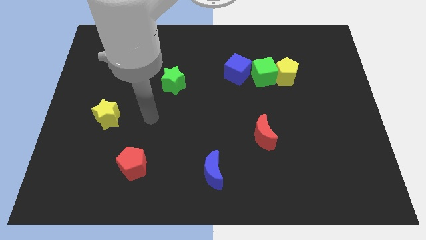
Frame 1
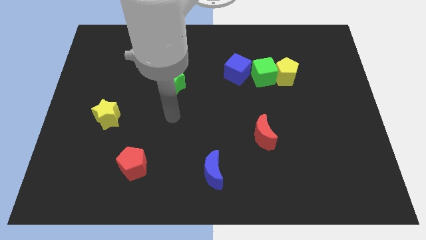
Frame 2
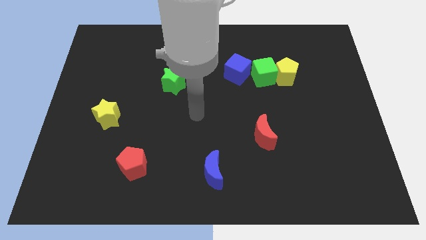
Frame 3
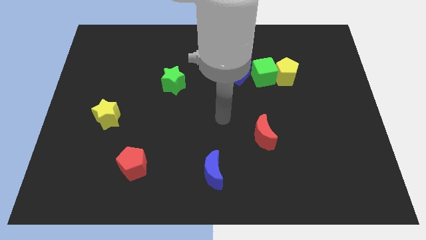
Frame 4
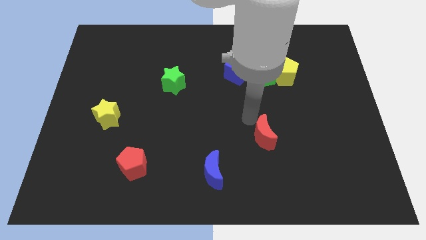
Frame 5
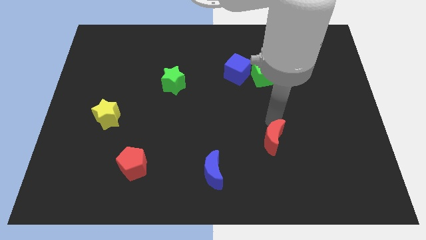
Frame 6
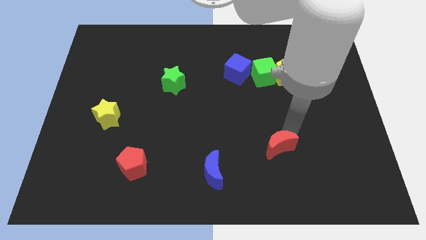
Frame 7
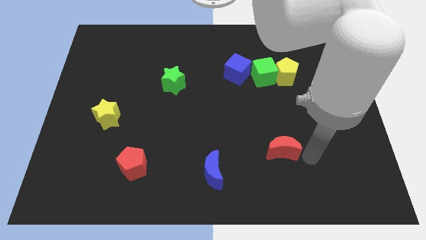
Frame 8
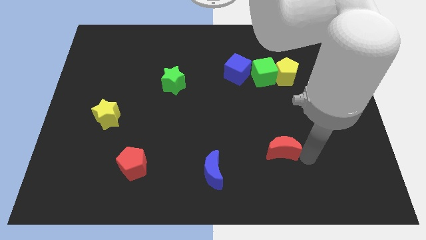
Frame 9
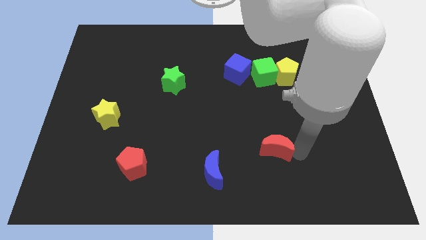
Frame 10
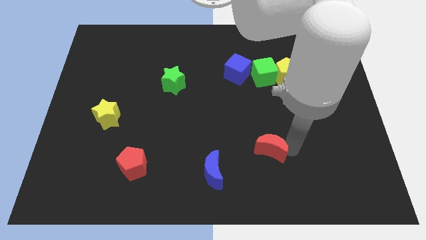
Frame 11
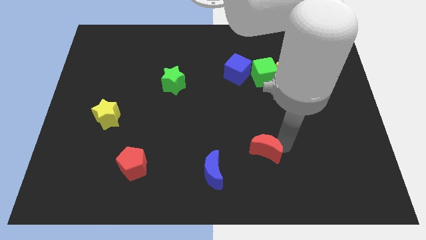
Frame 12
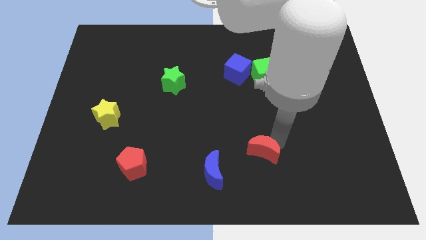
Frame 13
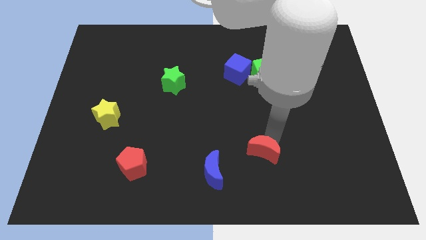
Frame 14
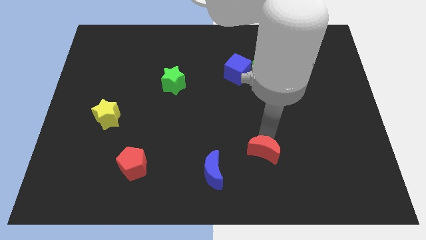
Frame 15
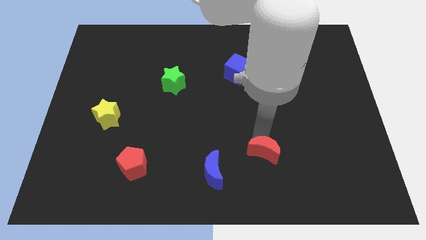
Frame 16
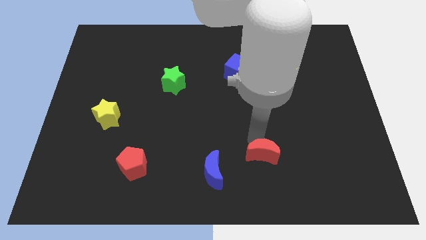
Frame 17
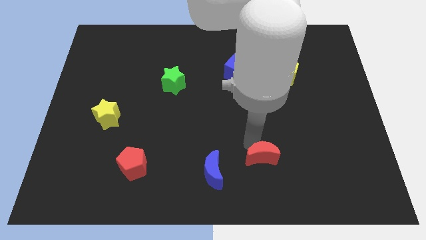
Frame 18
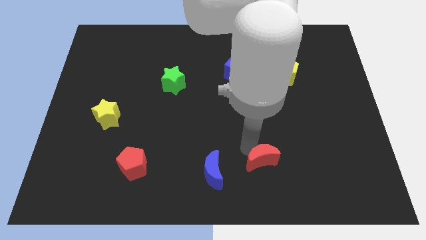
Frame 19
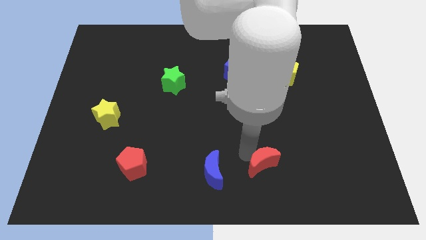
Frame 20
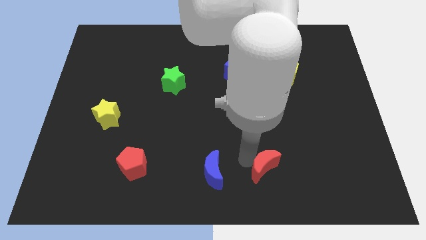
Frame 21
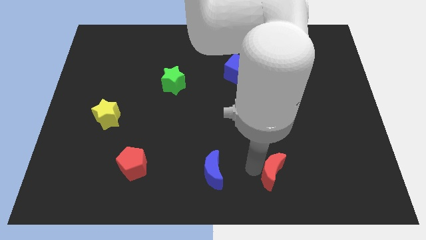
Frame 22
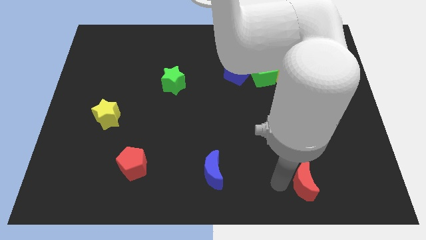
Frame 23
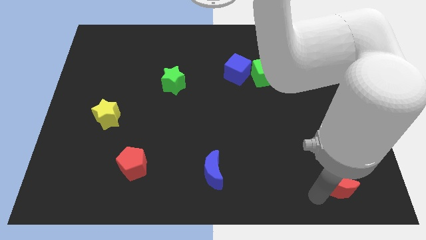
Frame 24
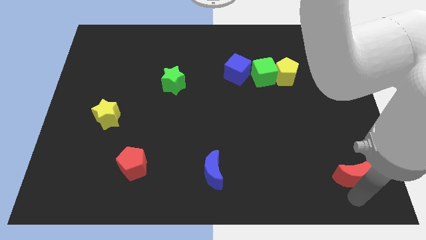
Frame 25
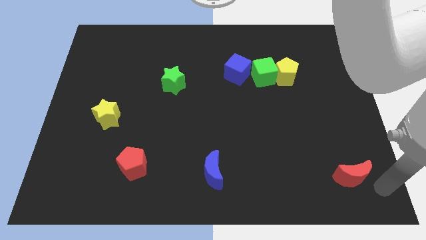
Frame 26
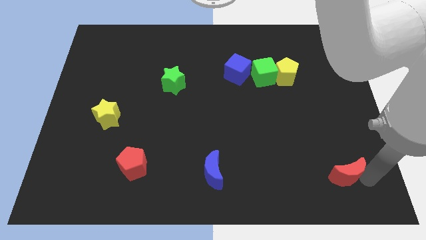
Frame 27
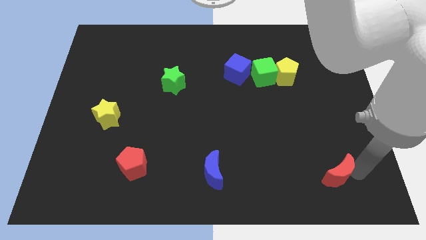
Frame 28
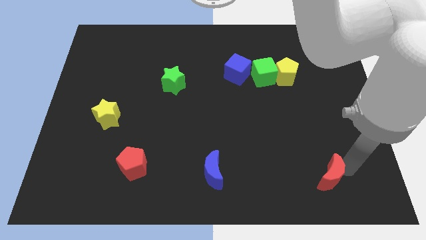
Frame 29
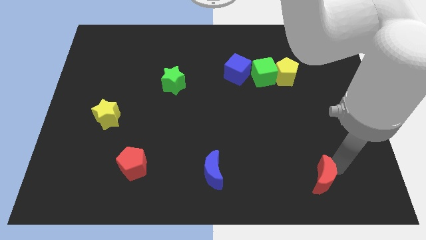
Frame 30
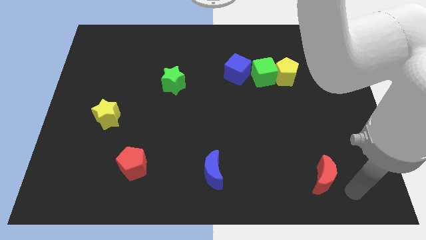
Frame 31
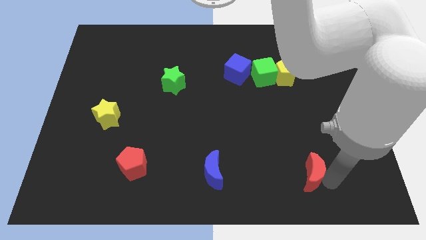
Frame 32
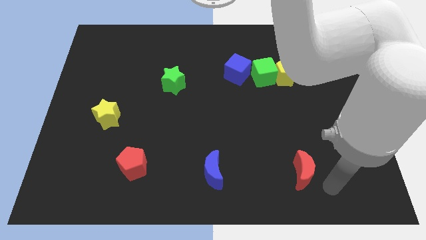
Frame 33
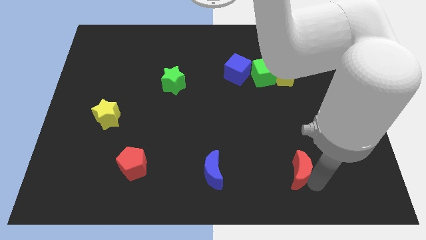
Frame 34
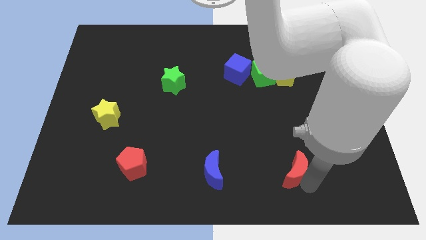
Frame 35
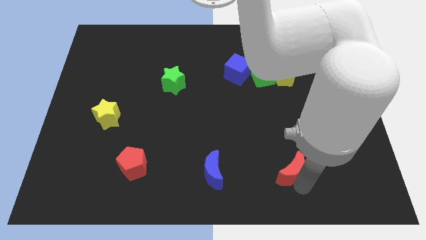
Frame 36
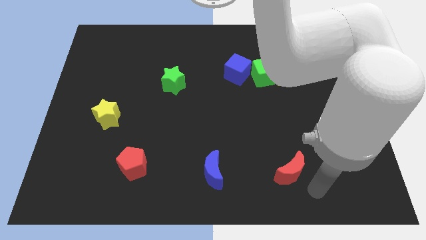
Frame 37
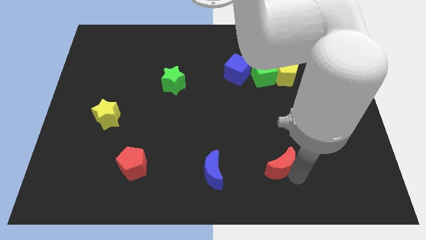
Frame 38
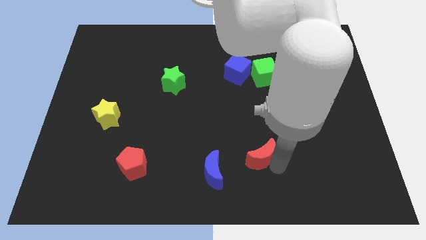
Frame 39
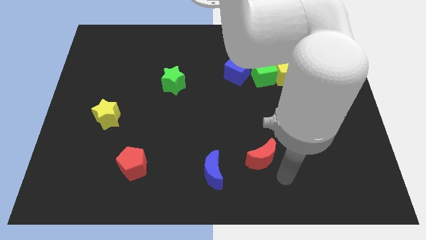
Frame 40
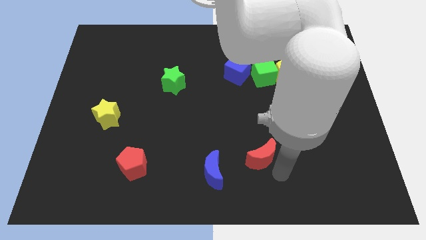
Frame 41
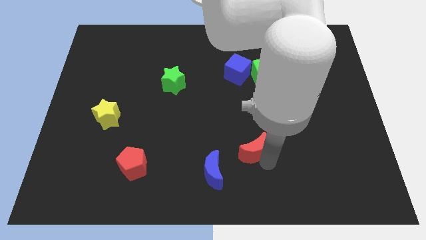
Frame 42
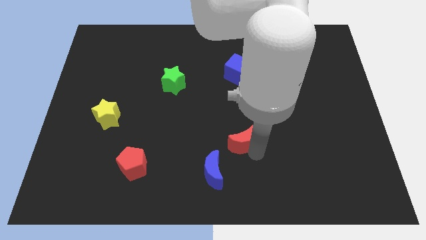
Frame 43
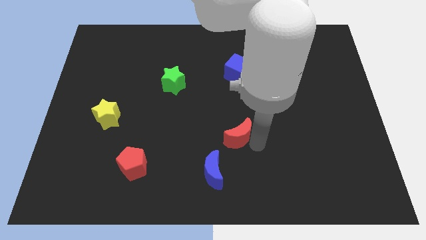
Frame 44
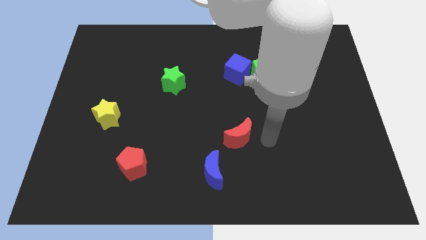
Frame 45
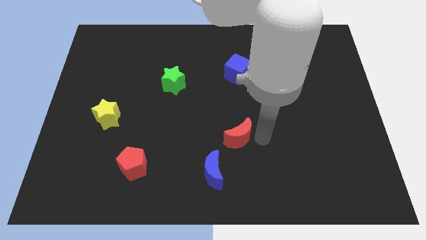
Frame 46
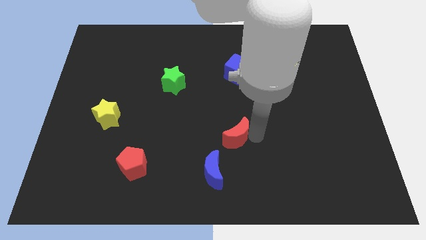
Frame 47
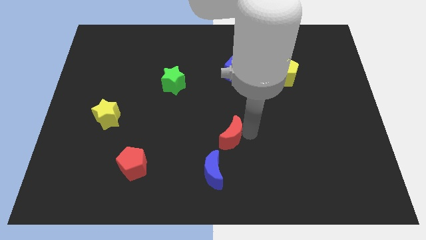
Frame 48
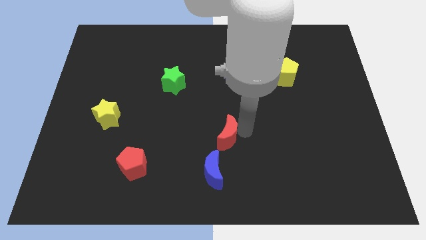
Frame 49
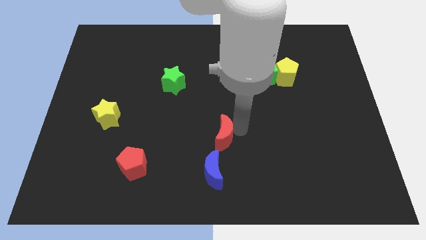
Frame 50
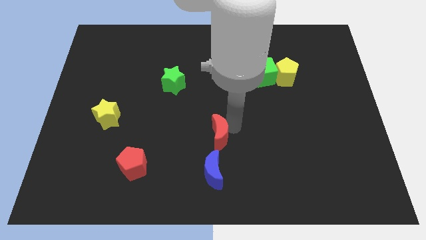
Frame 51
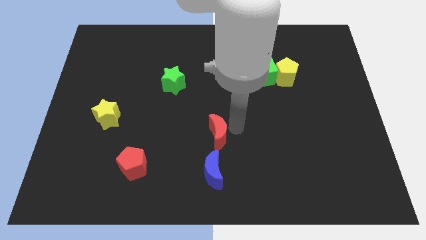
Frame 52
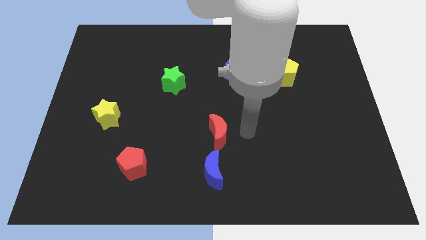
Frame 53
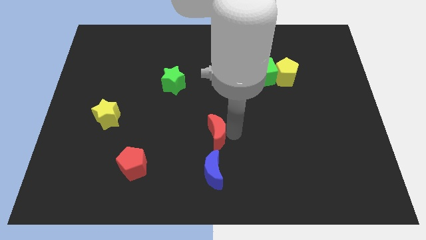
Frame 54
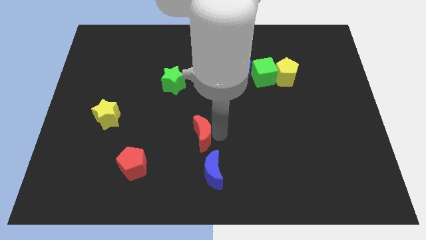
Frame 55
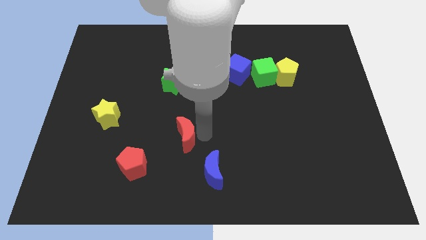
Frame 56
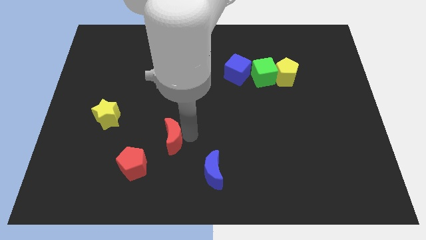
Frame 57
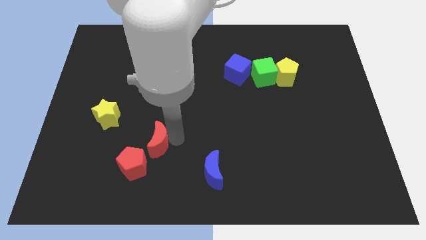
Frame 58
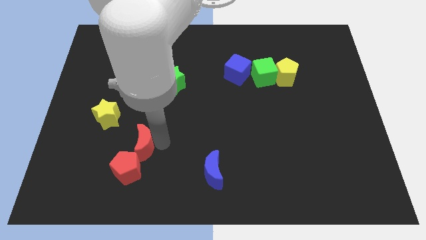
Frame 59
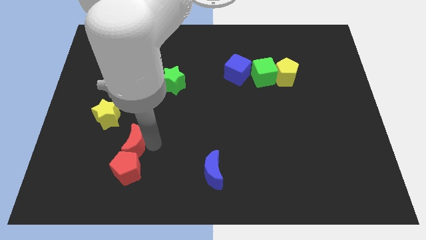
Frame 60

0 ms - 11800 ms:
move the red moon to the top left side of the red pentagon

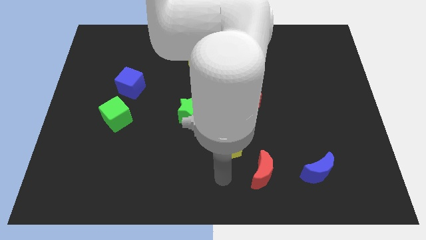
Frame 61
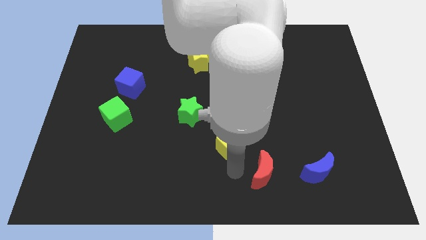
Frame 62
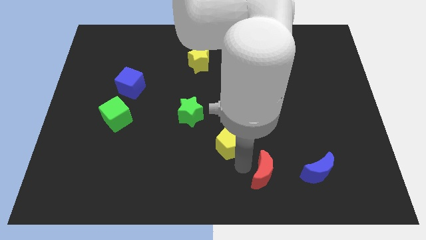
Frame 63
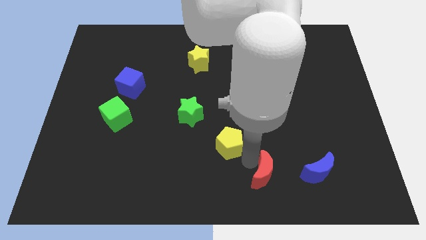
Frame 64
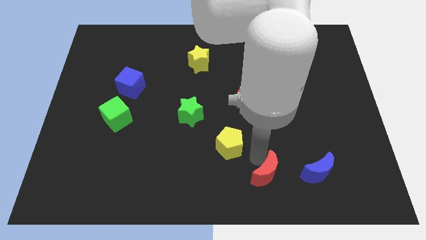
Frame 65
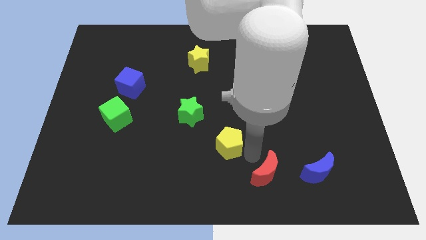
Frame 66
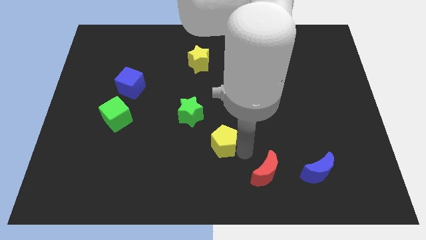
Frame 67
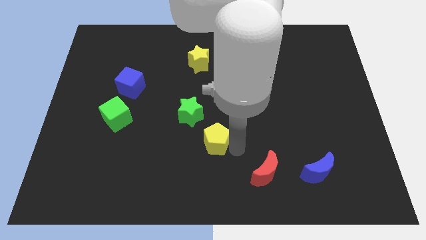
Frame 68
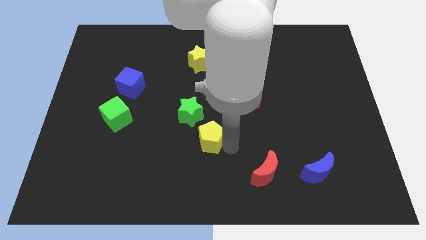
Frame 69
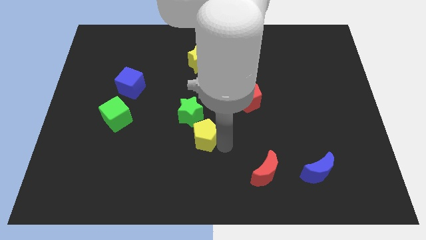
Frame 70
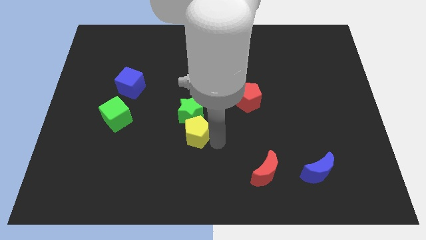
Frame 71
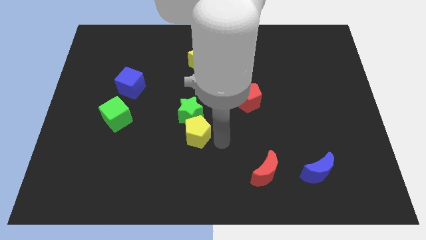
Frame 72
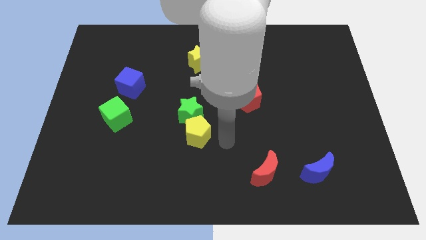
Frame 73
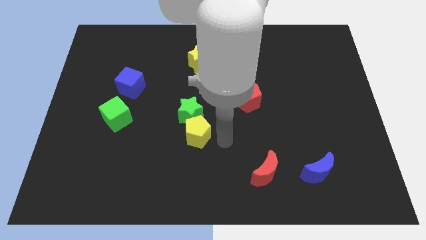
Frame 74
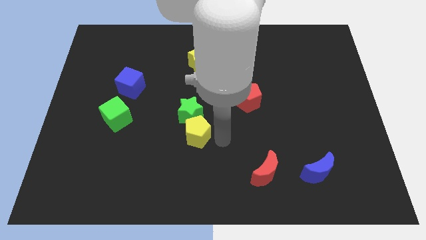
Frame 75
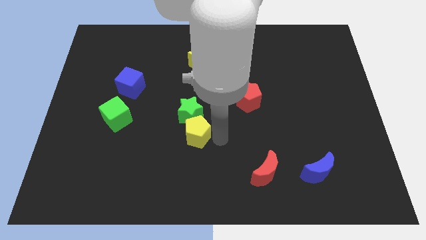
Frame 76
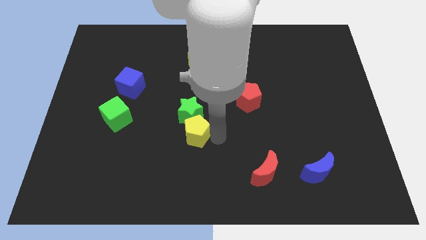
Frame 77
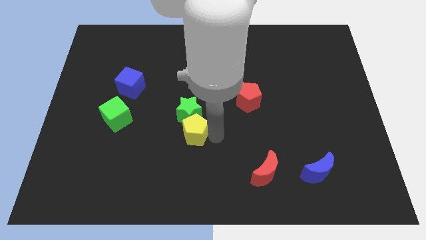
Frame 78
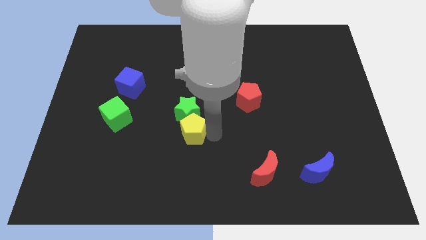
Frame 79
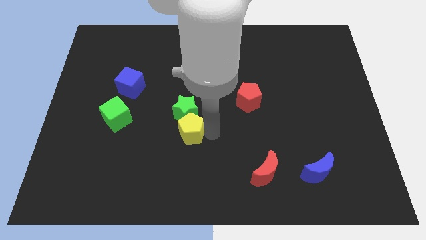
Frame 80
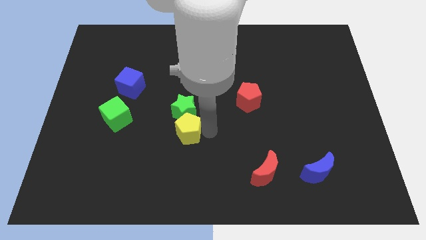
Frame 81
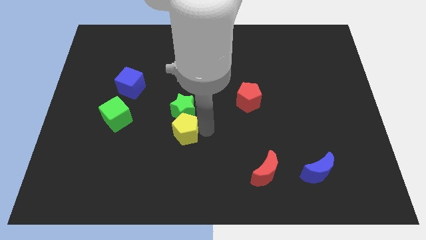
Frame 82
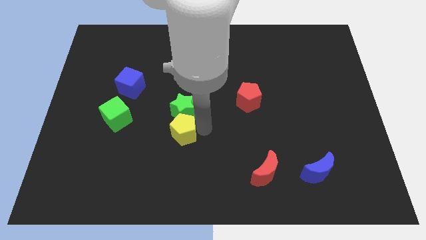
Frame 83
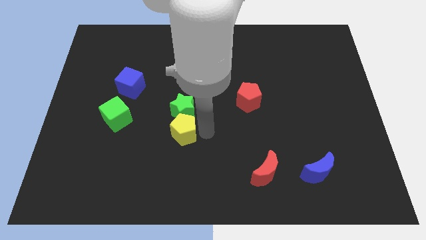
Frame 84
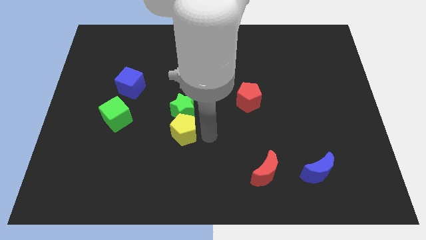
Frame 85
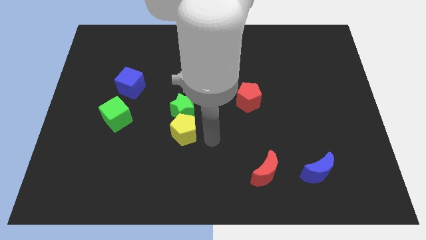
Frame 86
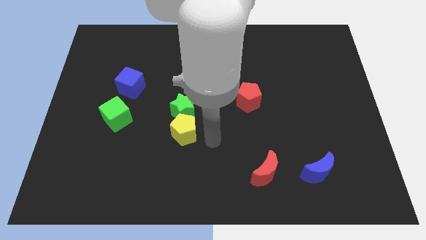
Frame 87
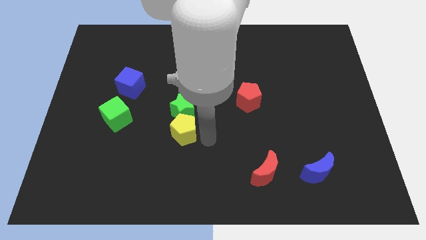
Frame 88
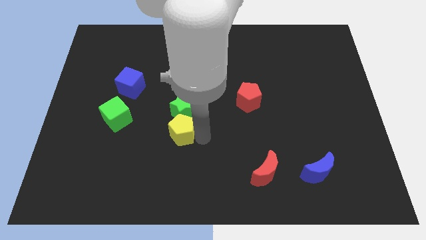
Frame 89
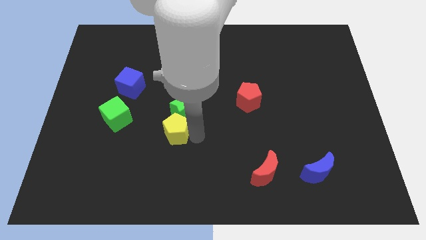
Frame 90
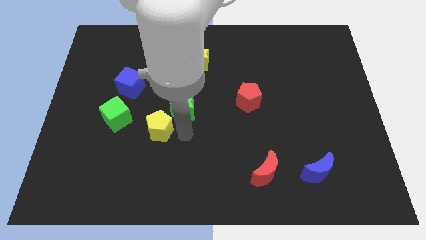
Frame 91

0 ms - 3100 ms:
put the yellow pentagon left of the green star
